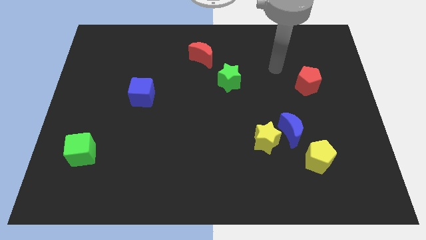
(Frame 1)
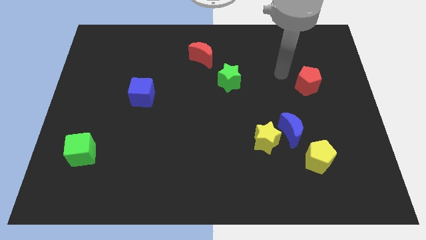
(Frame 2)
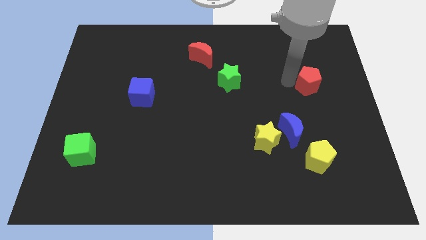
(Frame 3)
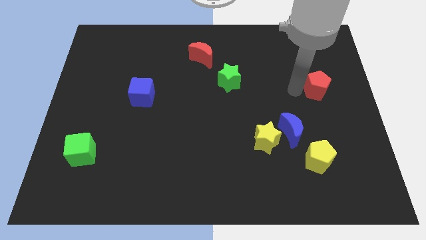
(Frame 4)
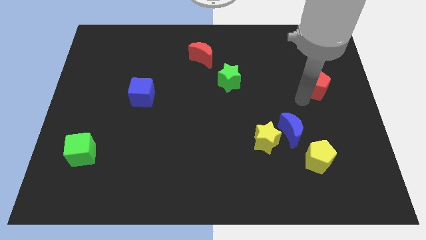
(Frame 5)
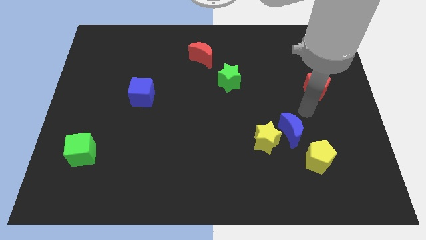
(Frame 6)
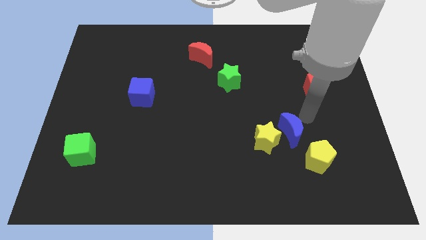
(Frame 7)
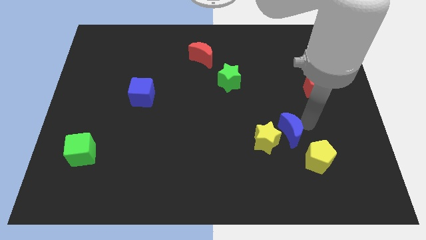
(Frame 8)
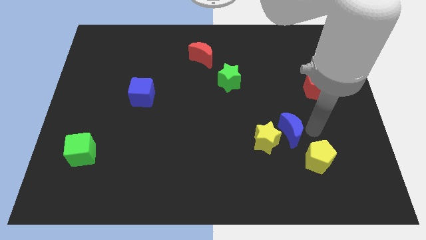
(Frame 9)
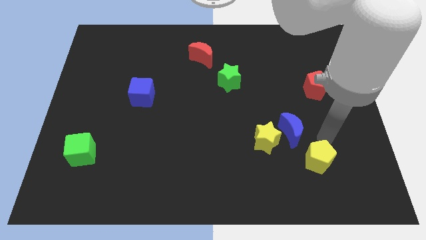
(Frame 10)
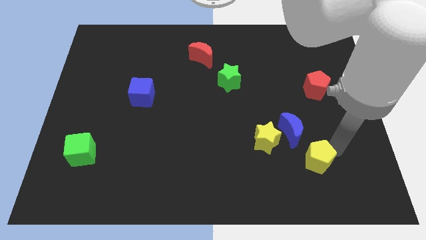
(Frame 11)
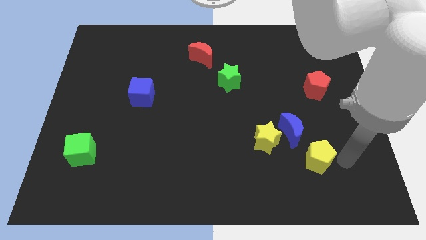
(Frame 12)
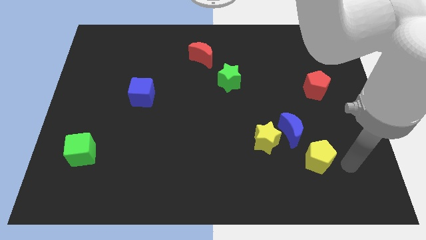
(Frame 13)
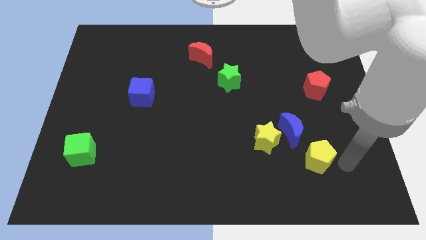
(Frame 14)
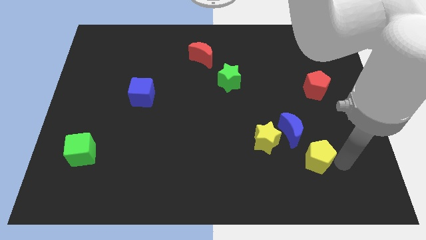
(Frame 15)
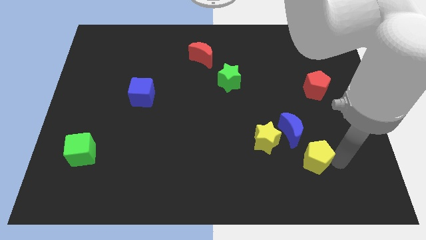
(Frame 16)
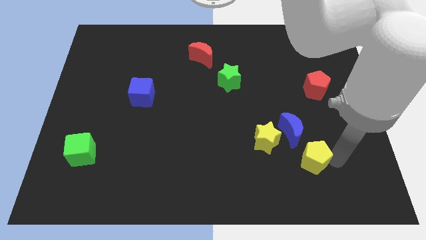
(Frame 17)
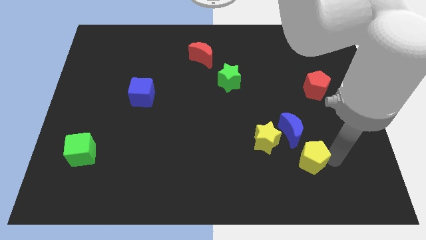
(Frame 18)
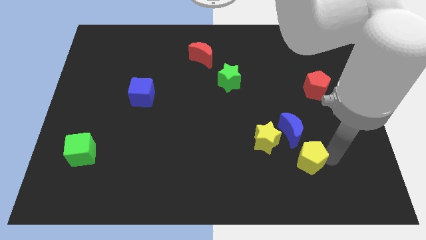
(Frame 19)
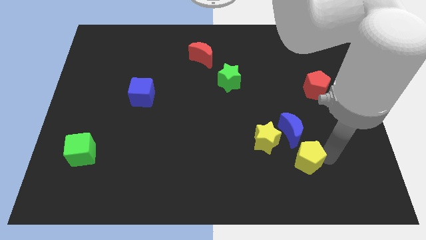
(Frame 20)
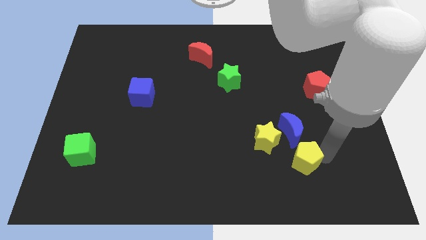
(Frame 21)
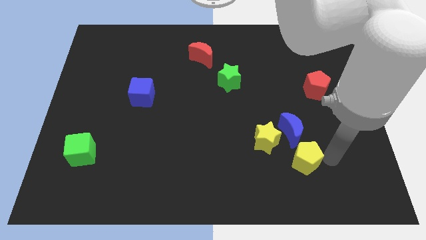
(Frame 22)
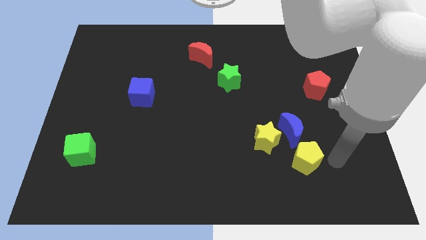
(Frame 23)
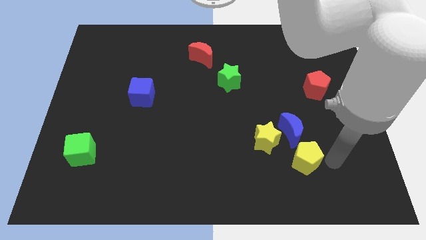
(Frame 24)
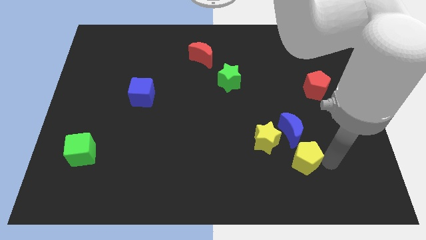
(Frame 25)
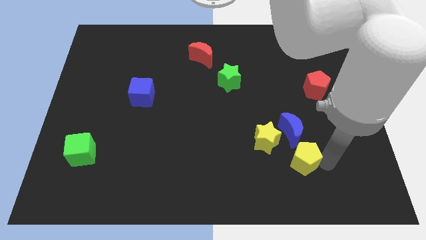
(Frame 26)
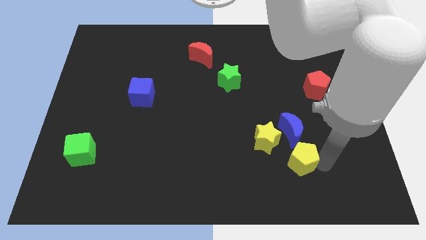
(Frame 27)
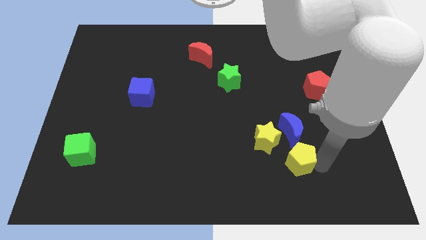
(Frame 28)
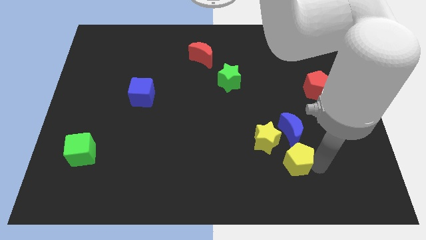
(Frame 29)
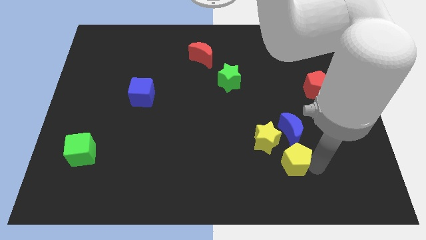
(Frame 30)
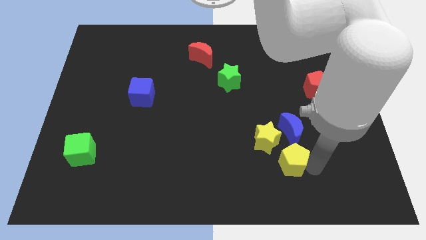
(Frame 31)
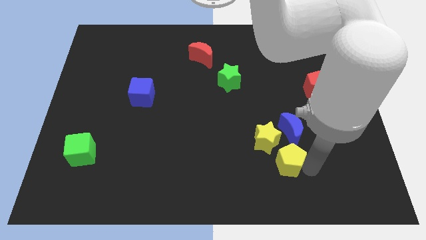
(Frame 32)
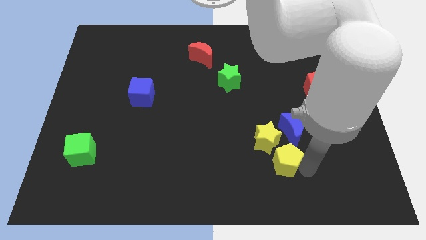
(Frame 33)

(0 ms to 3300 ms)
slightly slide the yellow pentagon left

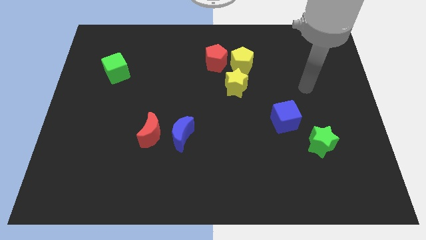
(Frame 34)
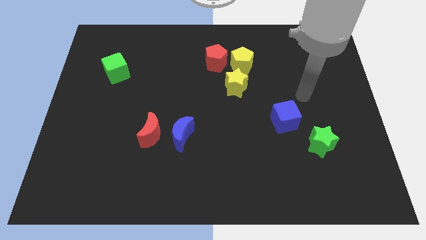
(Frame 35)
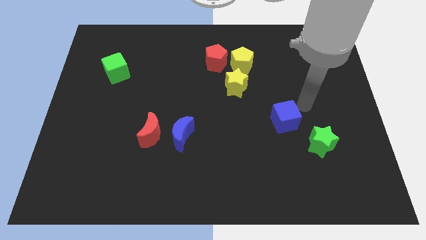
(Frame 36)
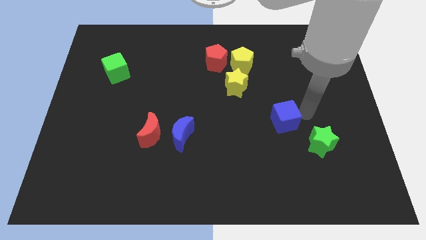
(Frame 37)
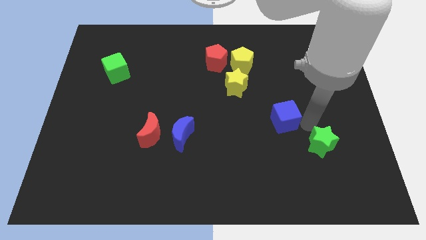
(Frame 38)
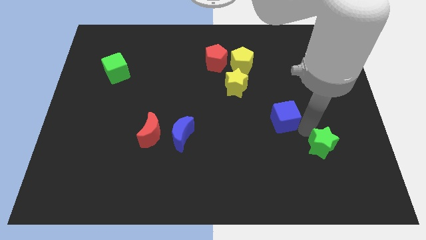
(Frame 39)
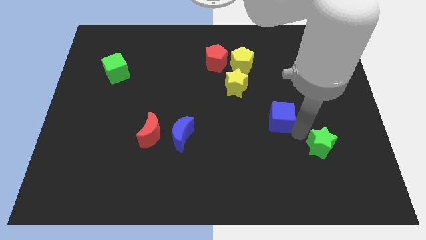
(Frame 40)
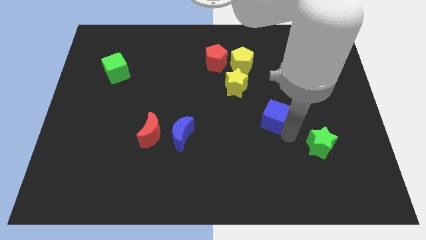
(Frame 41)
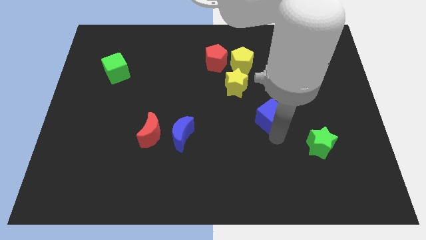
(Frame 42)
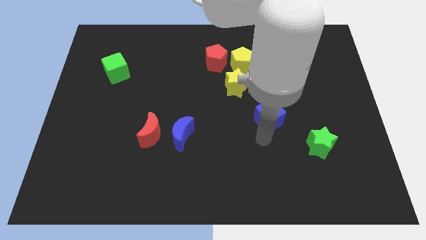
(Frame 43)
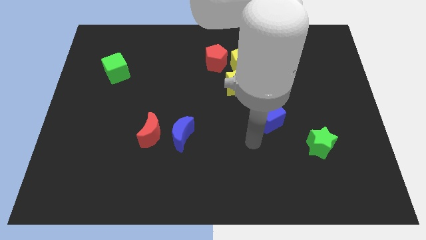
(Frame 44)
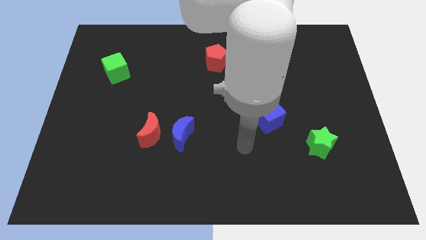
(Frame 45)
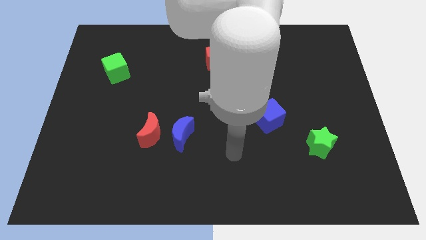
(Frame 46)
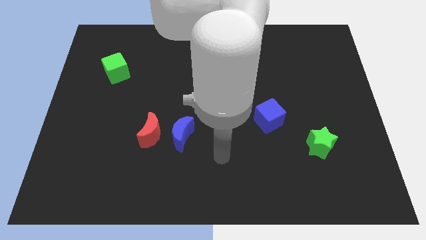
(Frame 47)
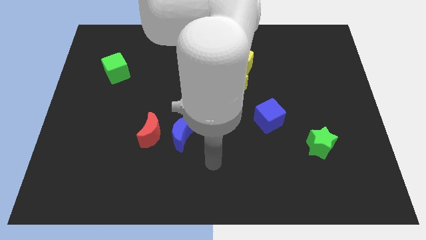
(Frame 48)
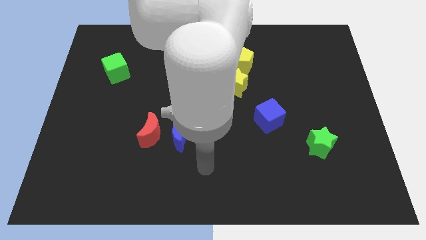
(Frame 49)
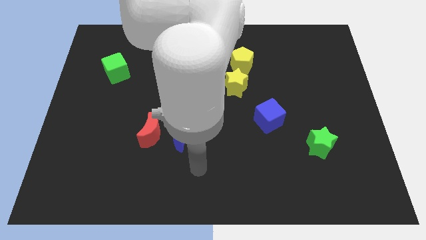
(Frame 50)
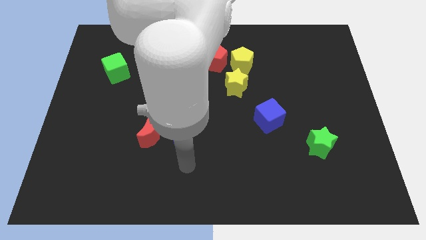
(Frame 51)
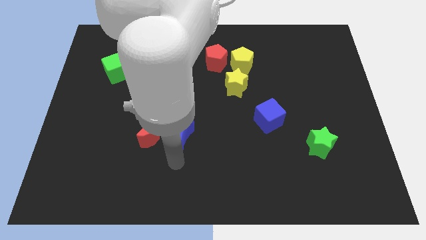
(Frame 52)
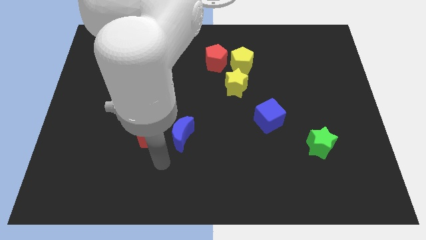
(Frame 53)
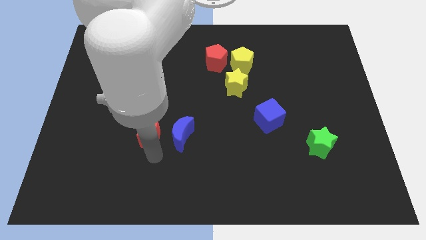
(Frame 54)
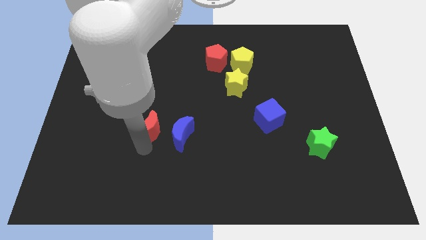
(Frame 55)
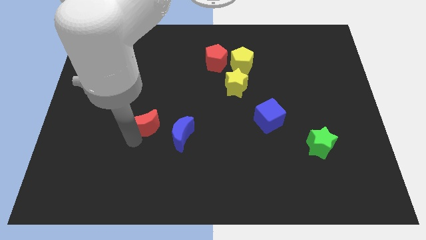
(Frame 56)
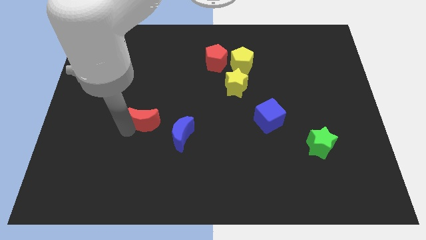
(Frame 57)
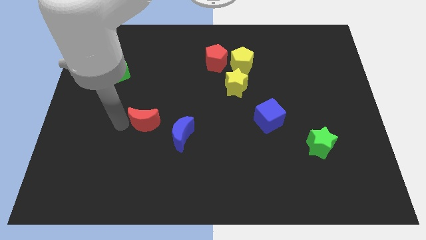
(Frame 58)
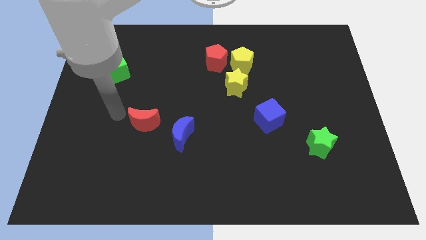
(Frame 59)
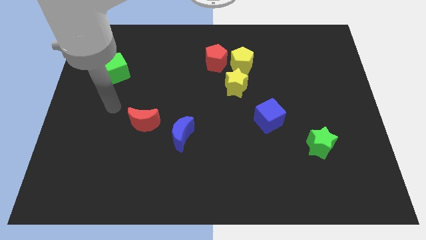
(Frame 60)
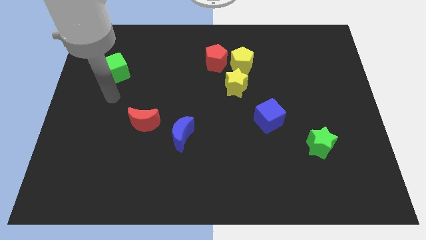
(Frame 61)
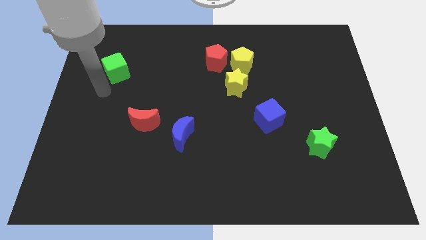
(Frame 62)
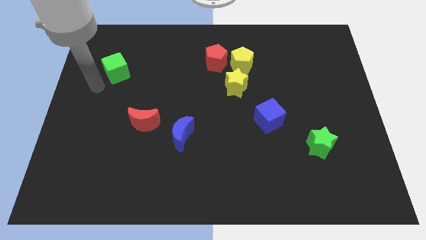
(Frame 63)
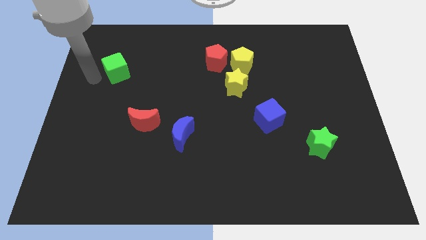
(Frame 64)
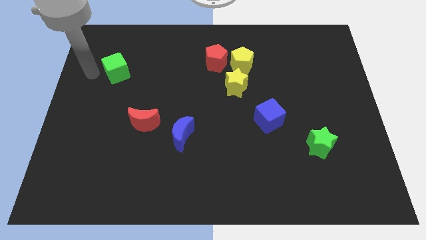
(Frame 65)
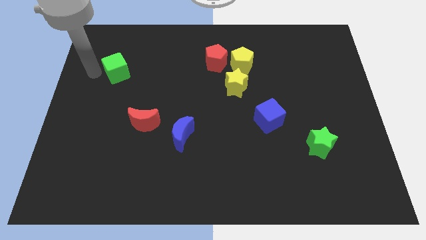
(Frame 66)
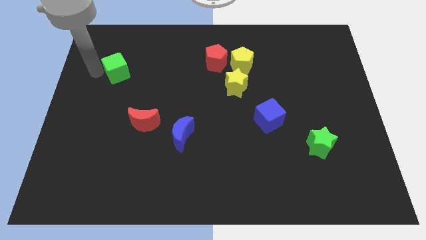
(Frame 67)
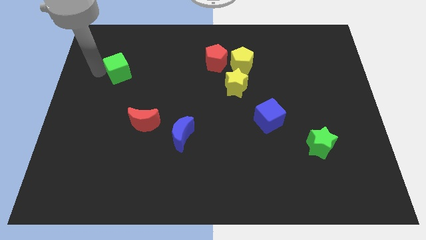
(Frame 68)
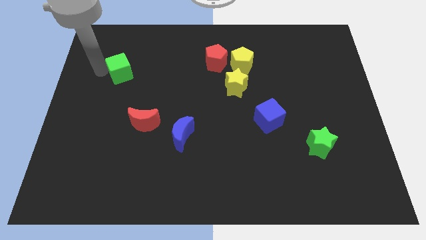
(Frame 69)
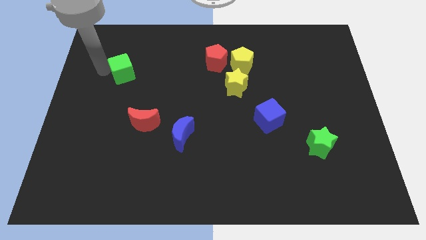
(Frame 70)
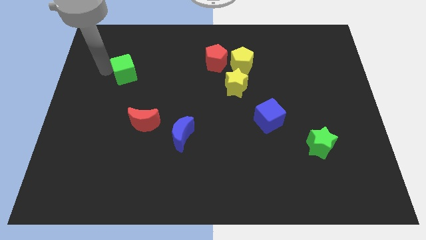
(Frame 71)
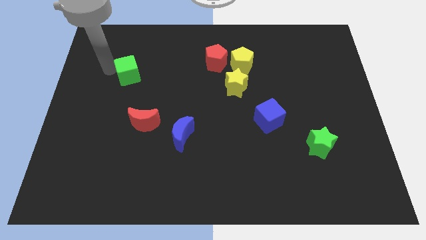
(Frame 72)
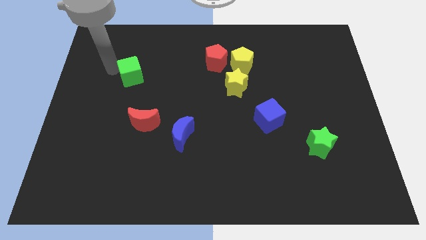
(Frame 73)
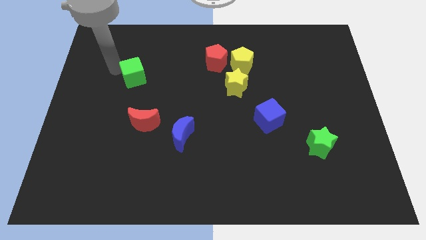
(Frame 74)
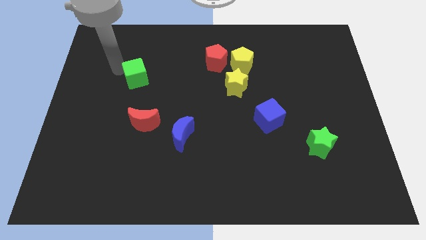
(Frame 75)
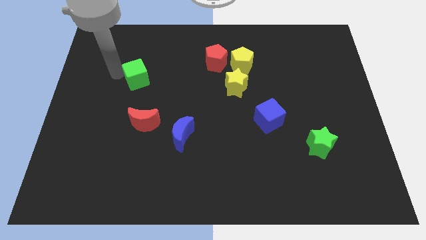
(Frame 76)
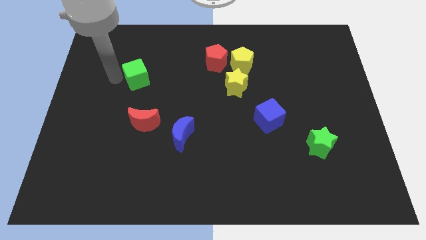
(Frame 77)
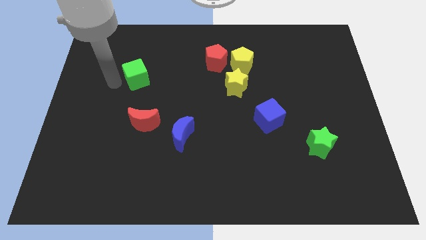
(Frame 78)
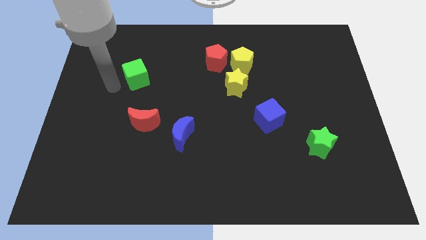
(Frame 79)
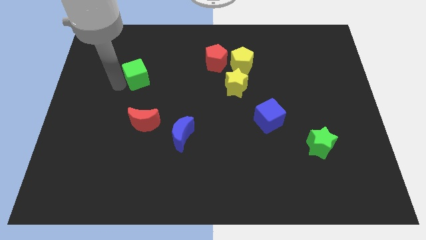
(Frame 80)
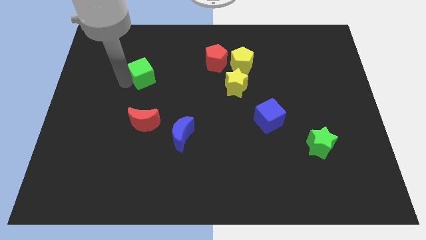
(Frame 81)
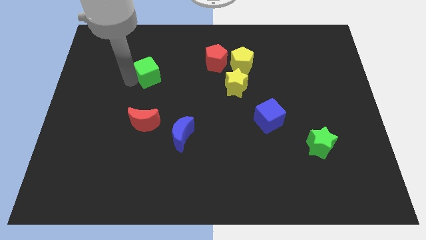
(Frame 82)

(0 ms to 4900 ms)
slide the green cube a little to the right
